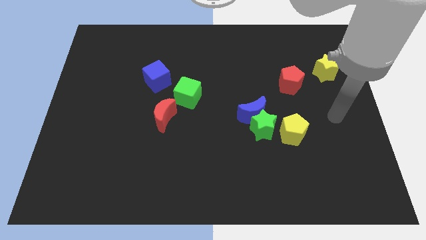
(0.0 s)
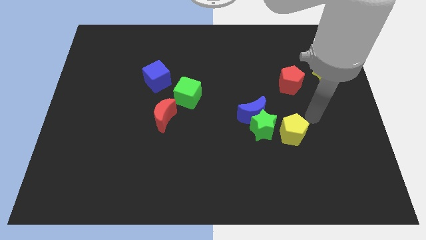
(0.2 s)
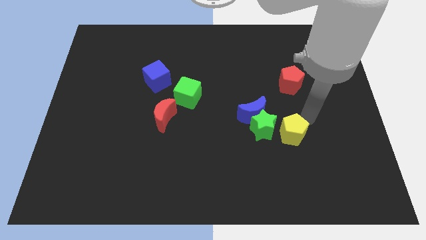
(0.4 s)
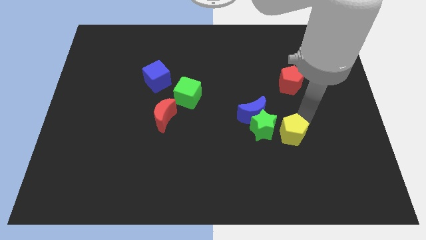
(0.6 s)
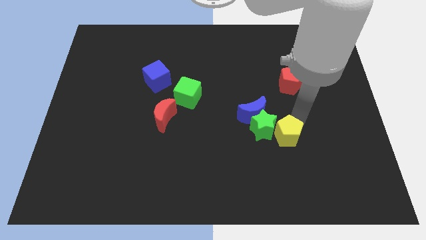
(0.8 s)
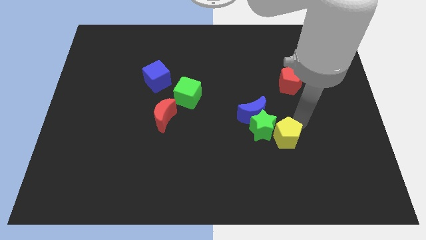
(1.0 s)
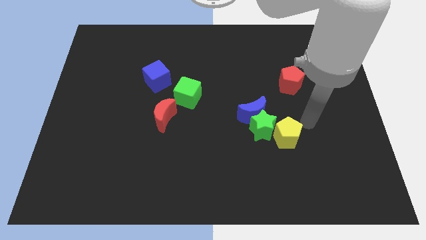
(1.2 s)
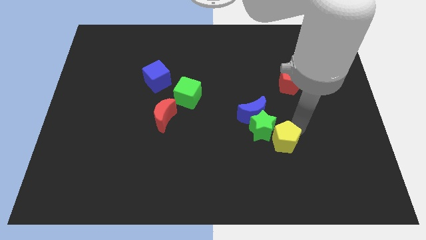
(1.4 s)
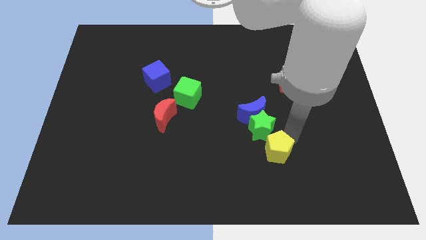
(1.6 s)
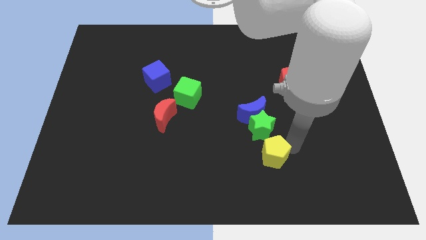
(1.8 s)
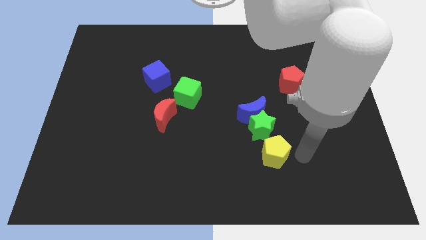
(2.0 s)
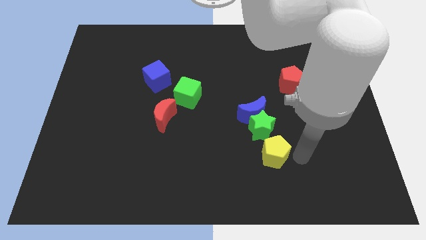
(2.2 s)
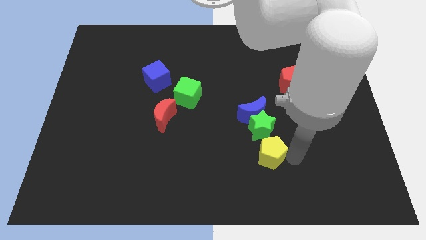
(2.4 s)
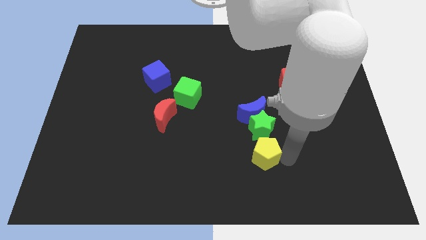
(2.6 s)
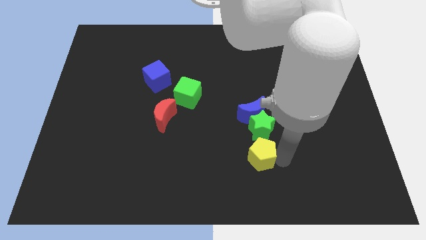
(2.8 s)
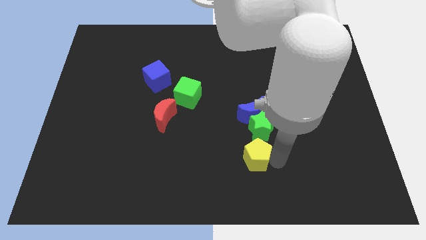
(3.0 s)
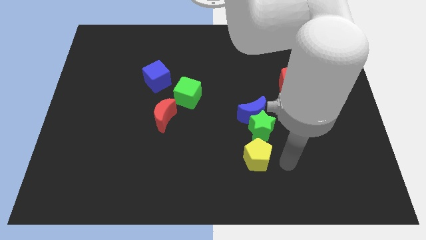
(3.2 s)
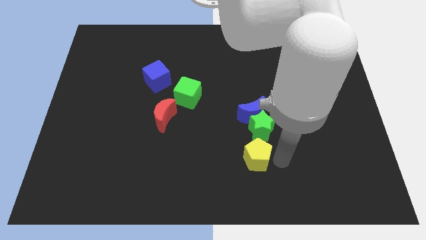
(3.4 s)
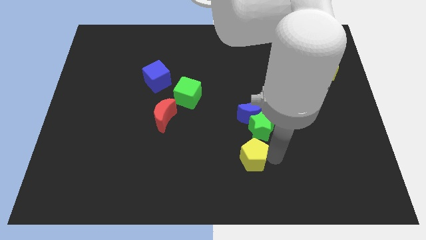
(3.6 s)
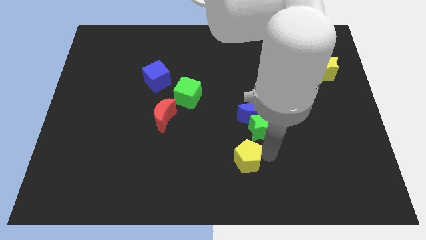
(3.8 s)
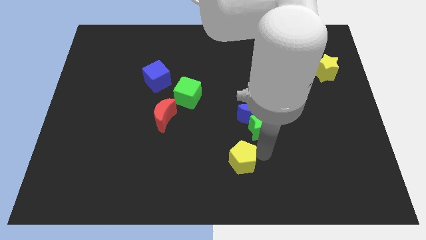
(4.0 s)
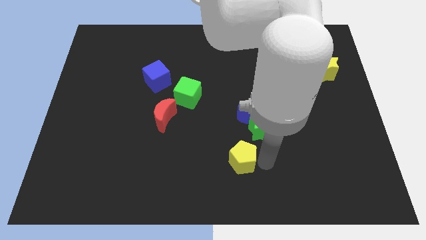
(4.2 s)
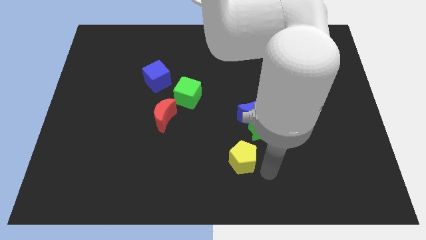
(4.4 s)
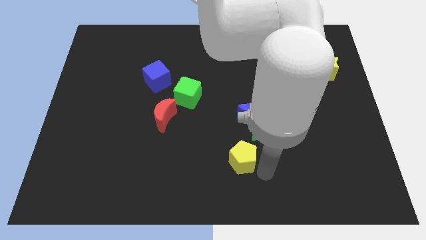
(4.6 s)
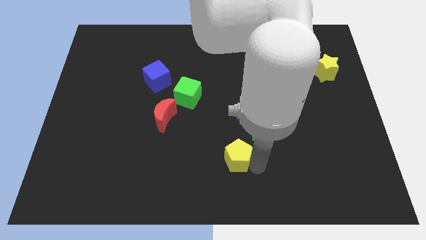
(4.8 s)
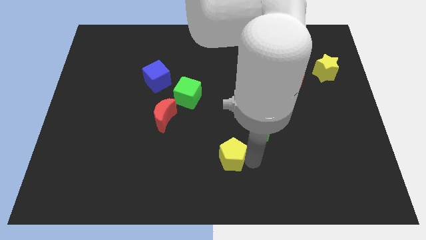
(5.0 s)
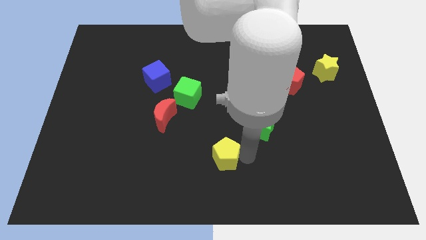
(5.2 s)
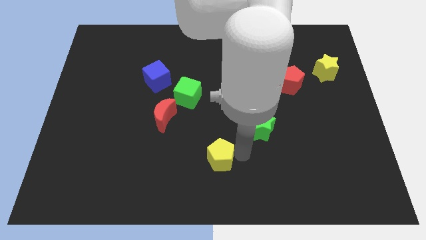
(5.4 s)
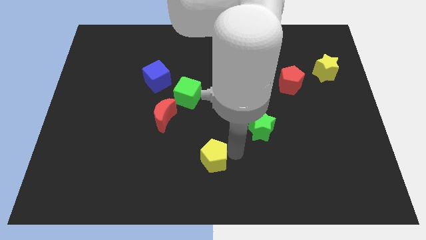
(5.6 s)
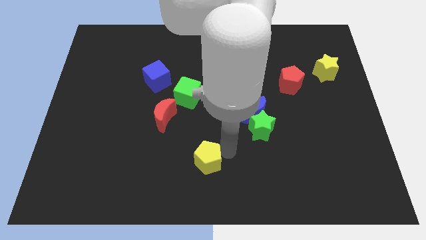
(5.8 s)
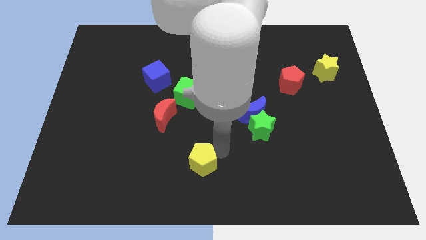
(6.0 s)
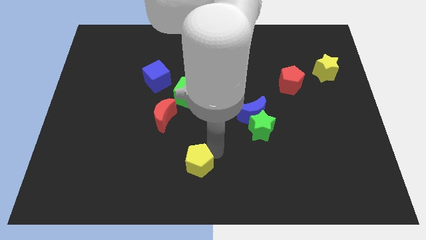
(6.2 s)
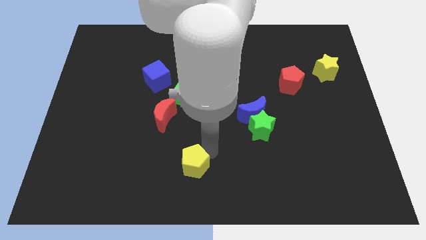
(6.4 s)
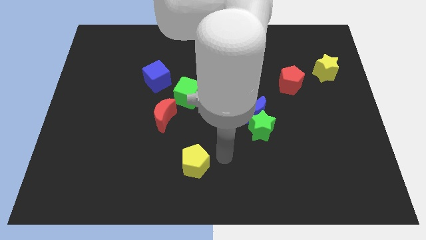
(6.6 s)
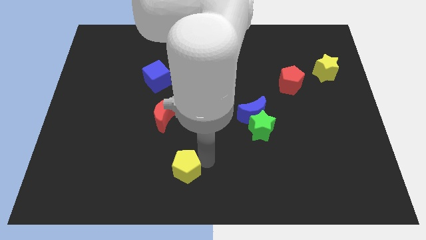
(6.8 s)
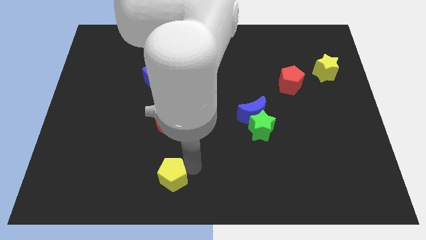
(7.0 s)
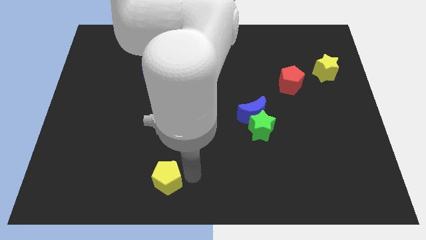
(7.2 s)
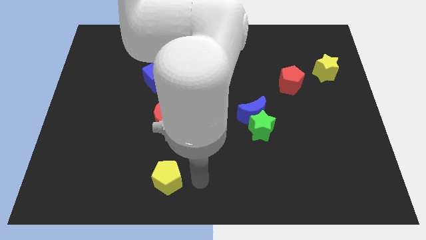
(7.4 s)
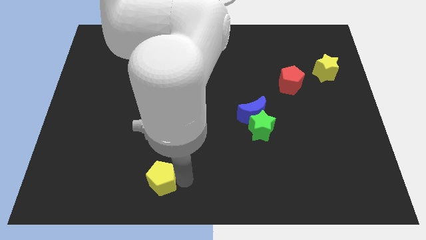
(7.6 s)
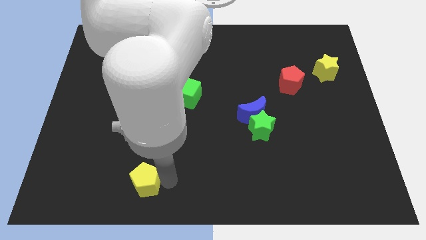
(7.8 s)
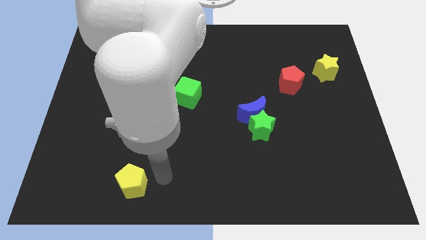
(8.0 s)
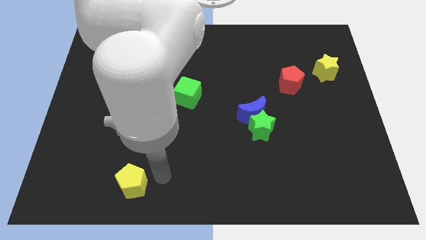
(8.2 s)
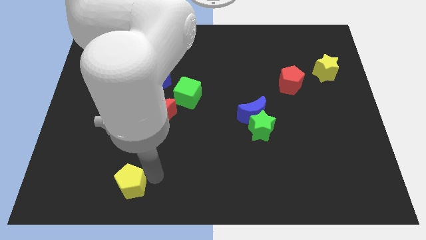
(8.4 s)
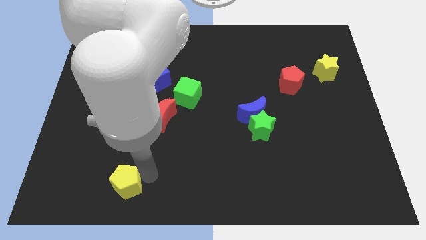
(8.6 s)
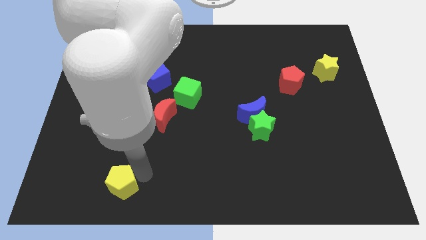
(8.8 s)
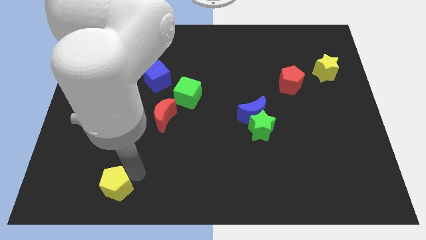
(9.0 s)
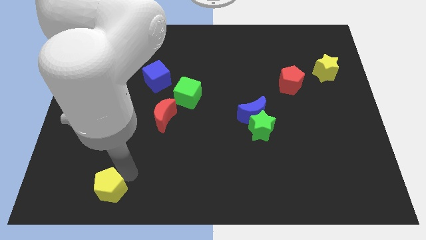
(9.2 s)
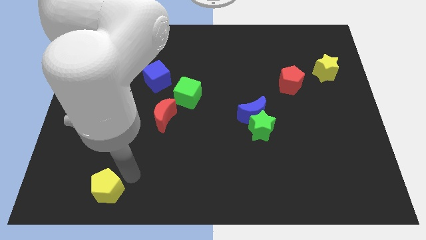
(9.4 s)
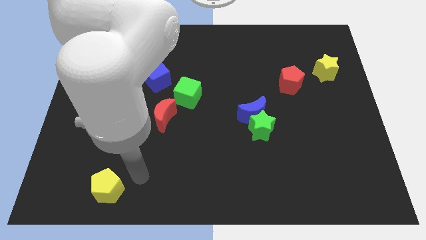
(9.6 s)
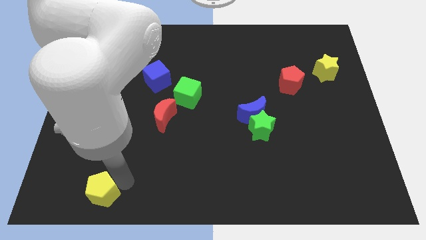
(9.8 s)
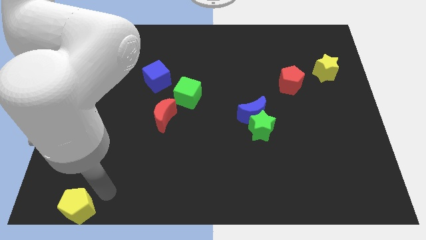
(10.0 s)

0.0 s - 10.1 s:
slide the yellow pentagon to the bottom left

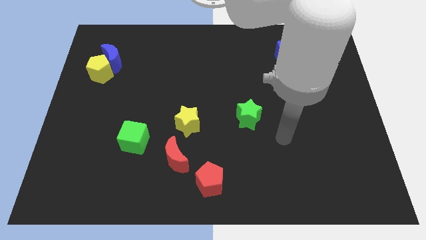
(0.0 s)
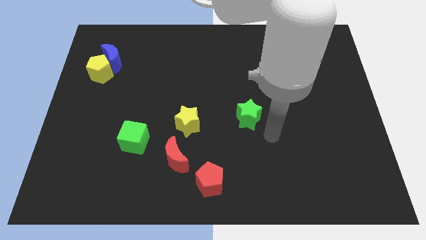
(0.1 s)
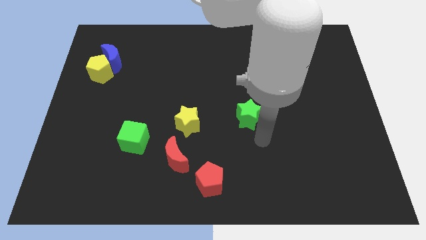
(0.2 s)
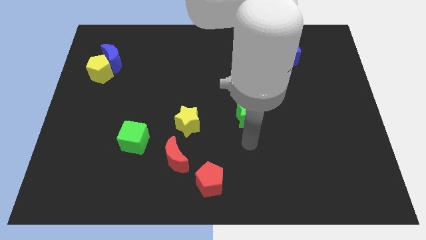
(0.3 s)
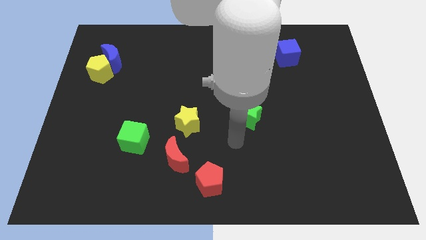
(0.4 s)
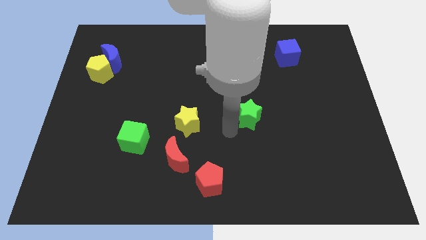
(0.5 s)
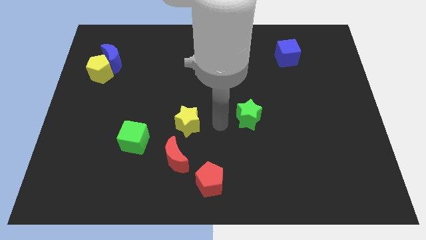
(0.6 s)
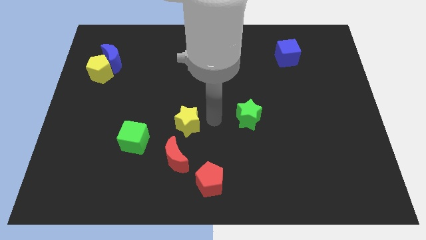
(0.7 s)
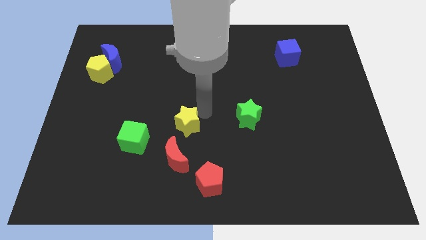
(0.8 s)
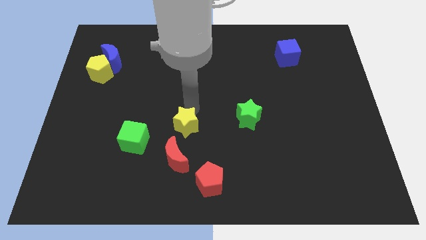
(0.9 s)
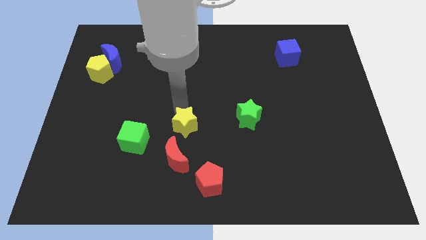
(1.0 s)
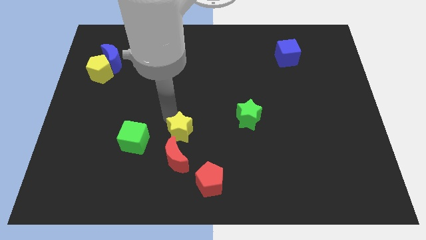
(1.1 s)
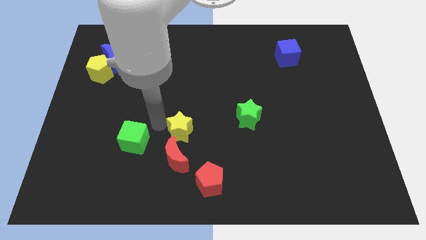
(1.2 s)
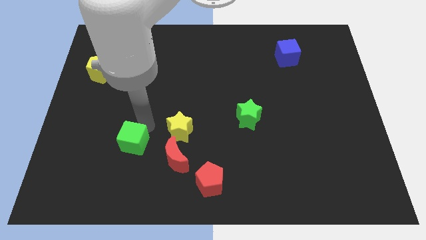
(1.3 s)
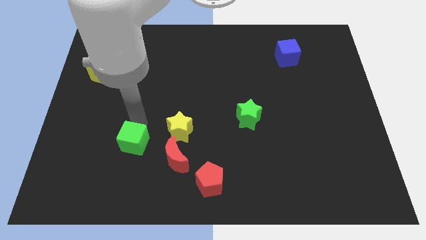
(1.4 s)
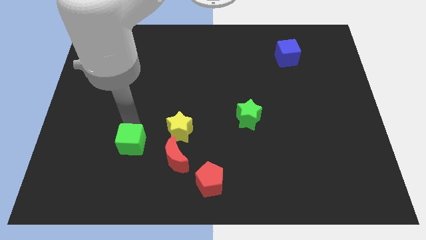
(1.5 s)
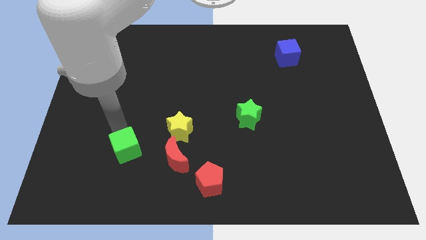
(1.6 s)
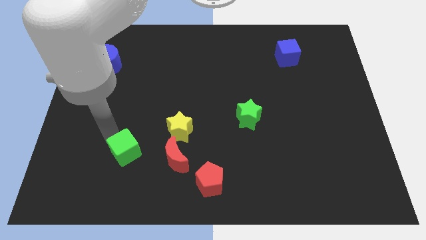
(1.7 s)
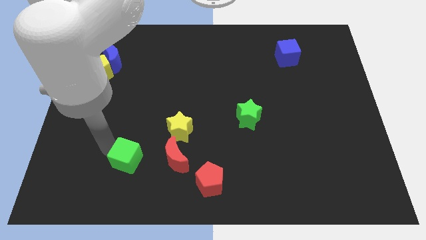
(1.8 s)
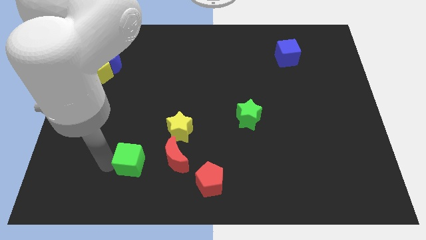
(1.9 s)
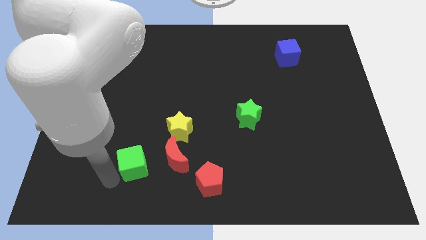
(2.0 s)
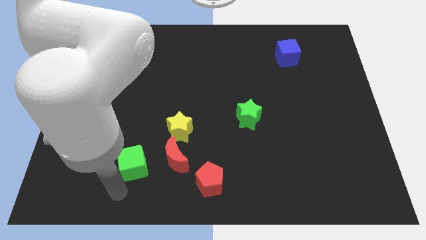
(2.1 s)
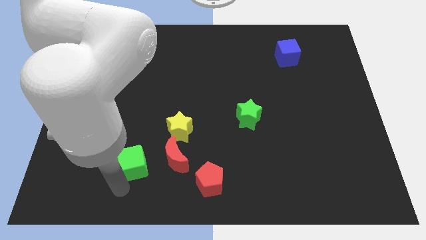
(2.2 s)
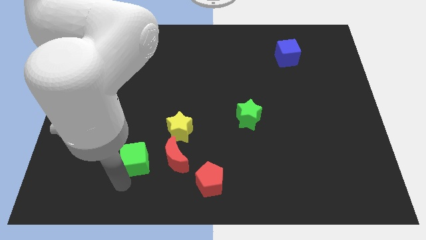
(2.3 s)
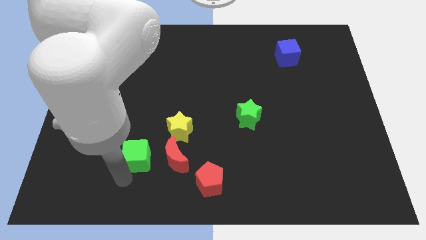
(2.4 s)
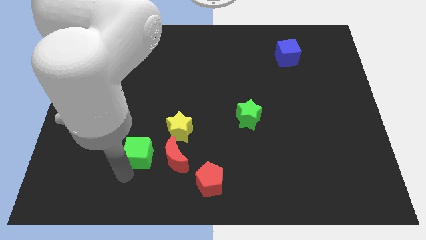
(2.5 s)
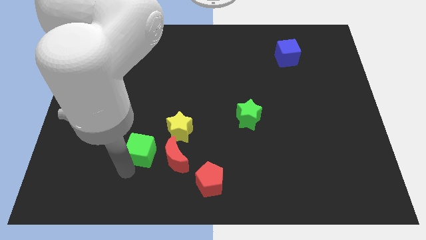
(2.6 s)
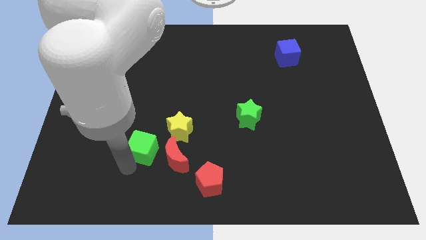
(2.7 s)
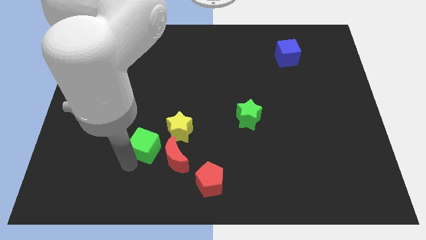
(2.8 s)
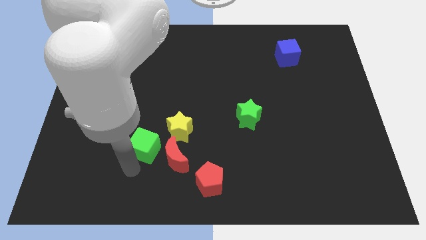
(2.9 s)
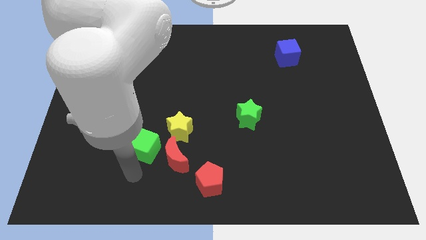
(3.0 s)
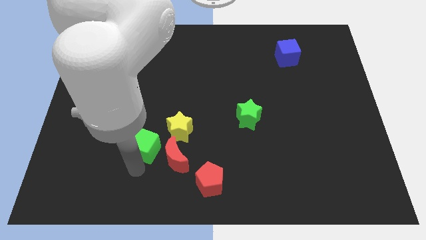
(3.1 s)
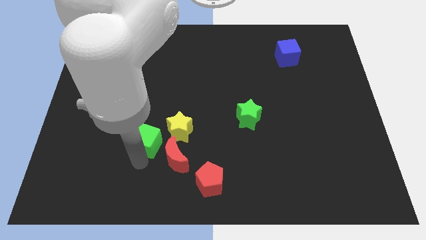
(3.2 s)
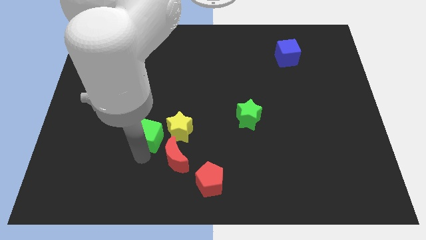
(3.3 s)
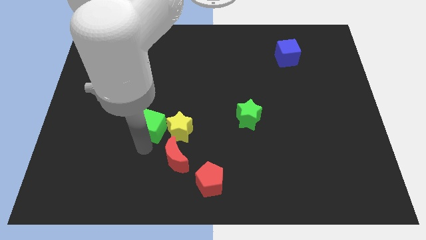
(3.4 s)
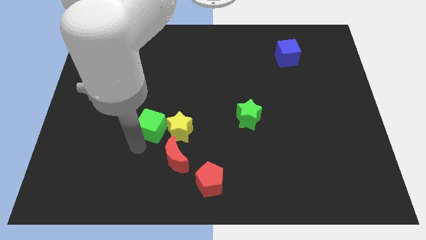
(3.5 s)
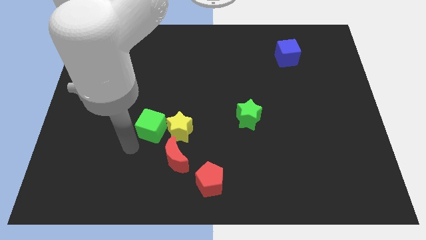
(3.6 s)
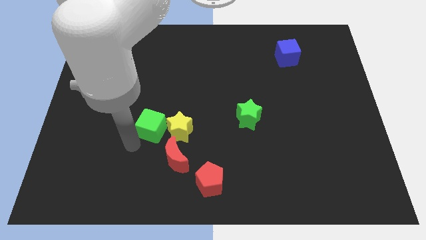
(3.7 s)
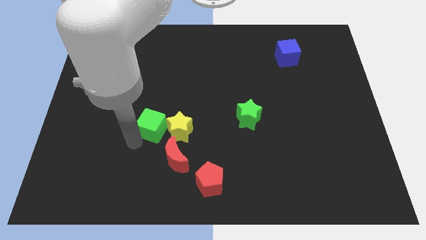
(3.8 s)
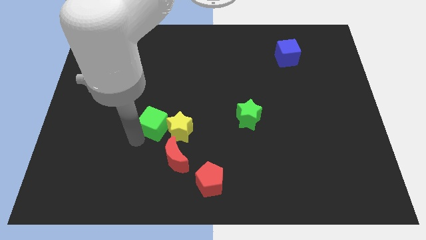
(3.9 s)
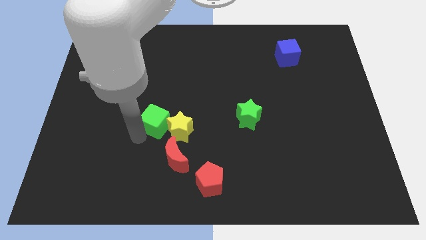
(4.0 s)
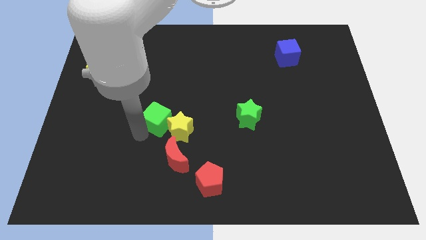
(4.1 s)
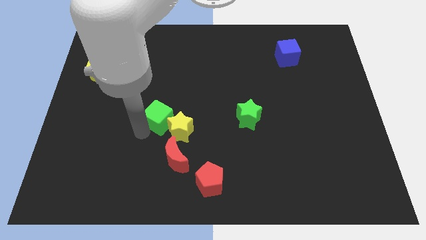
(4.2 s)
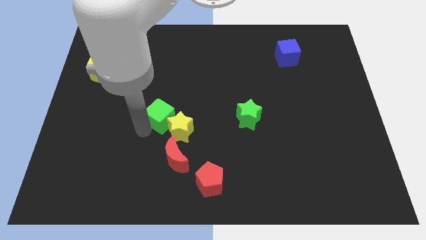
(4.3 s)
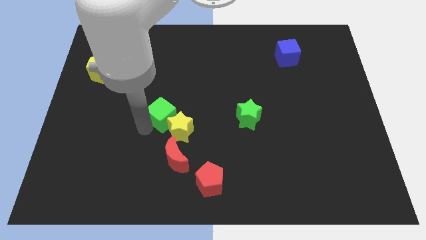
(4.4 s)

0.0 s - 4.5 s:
put the green cube to the middle of the board
